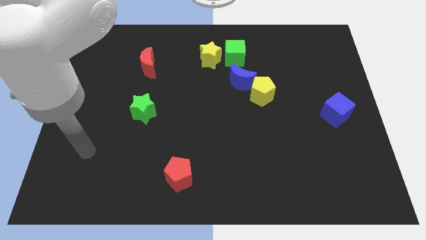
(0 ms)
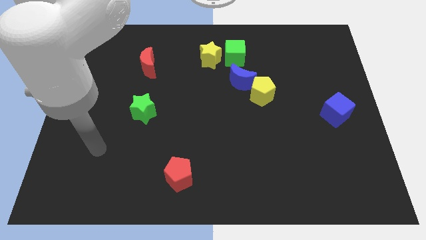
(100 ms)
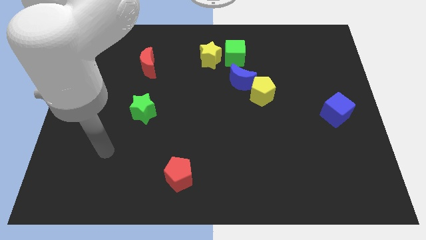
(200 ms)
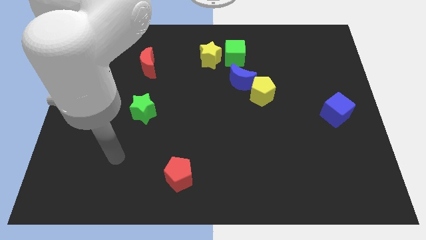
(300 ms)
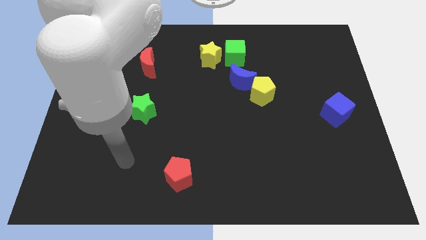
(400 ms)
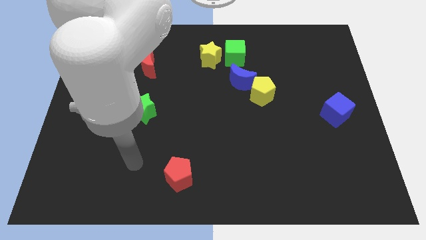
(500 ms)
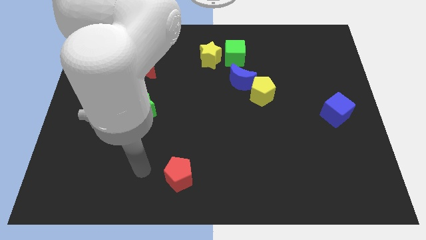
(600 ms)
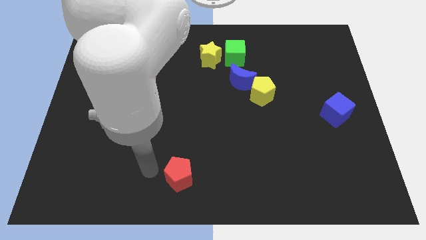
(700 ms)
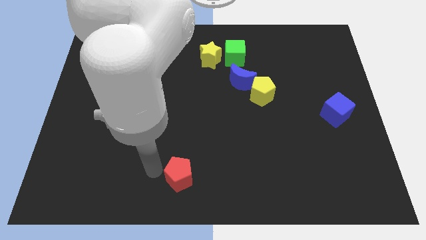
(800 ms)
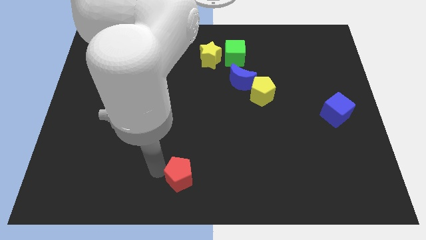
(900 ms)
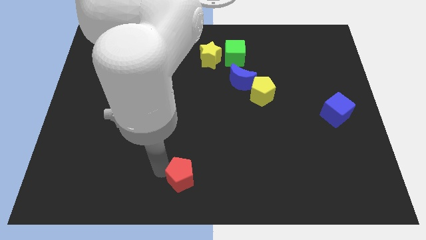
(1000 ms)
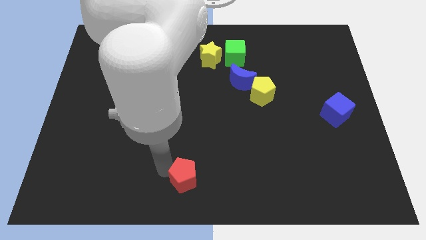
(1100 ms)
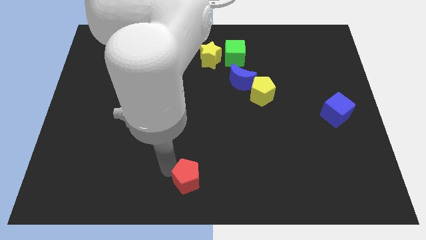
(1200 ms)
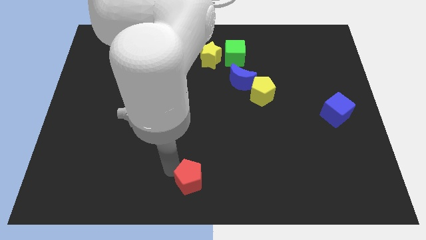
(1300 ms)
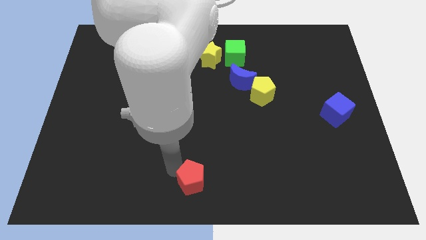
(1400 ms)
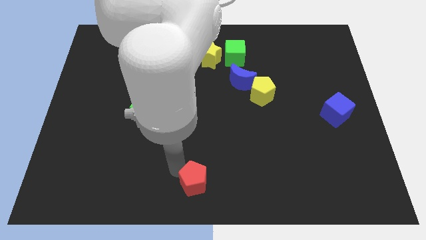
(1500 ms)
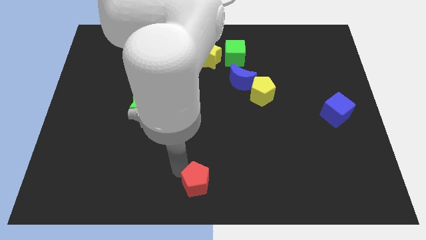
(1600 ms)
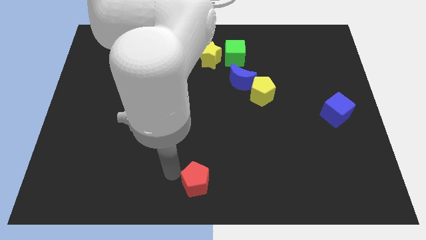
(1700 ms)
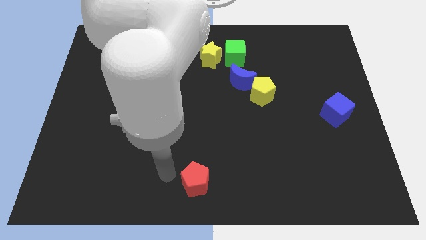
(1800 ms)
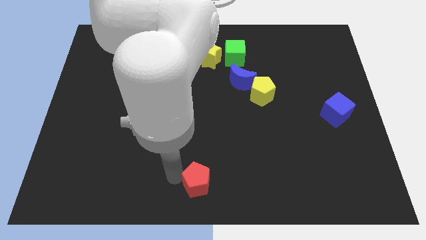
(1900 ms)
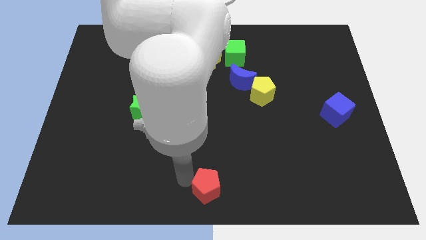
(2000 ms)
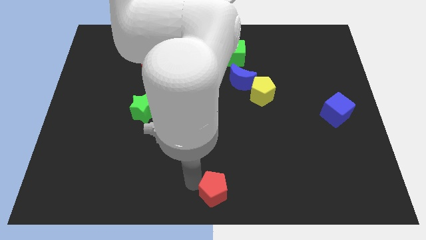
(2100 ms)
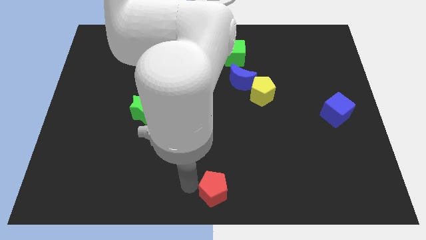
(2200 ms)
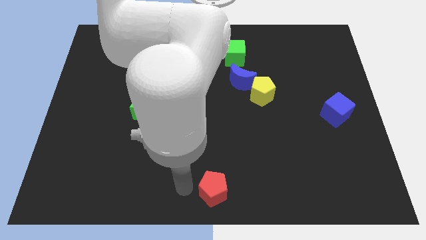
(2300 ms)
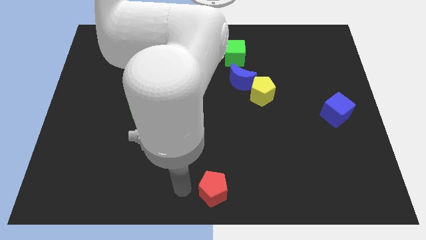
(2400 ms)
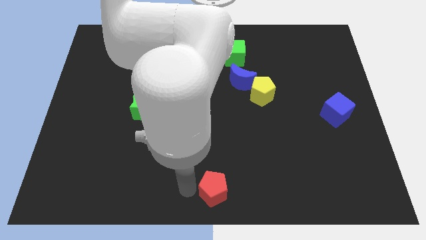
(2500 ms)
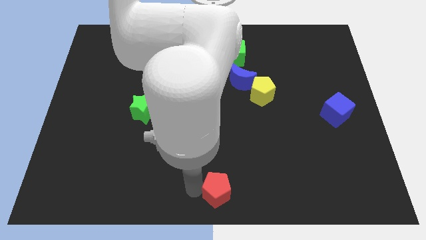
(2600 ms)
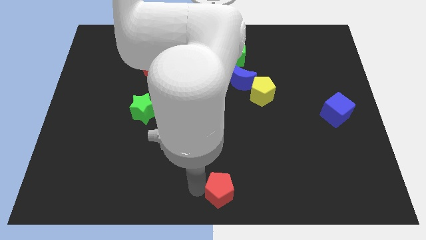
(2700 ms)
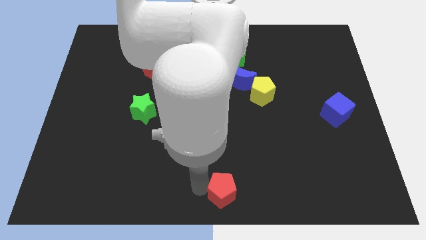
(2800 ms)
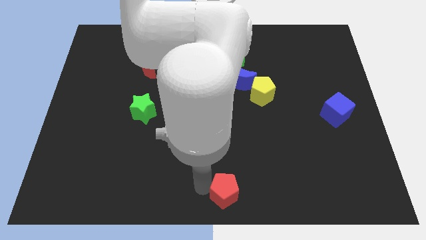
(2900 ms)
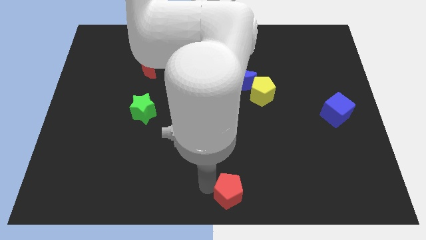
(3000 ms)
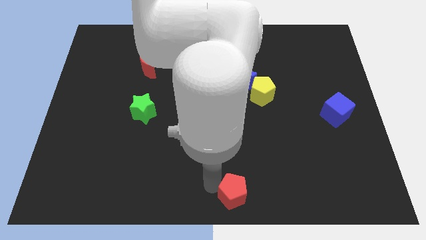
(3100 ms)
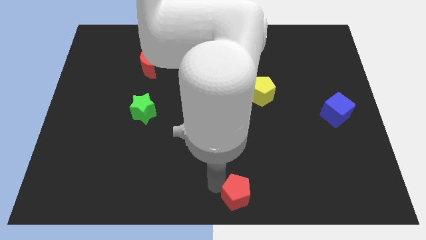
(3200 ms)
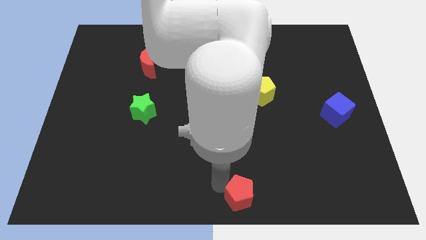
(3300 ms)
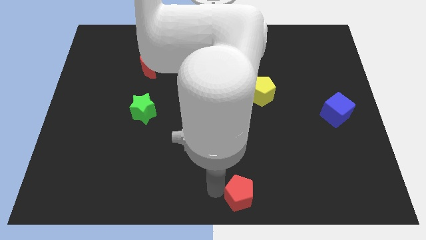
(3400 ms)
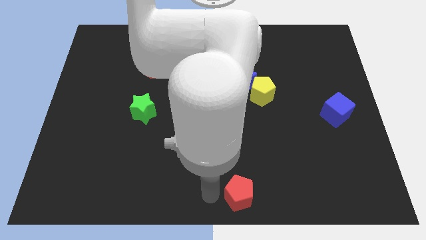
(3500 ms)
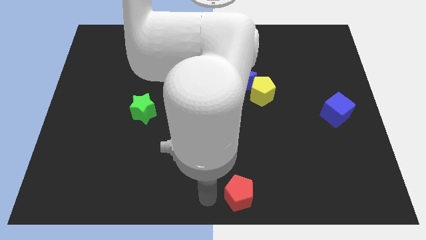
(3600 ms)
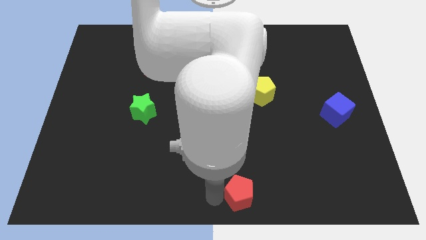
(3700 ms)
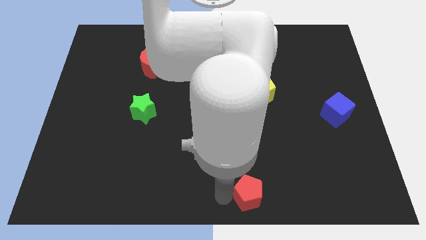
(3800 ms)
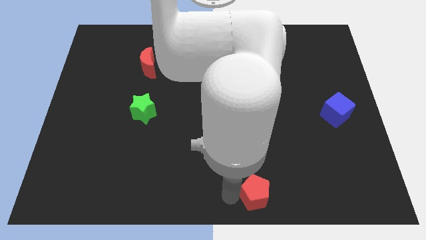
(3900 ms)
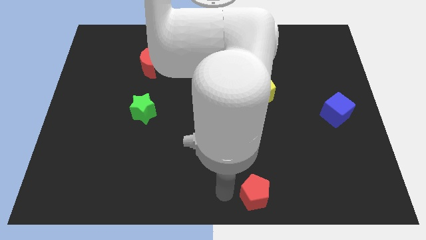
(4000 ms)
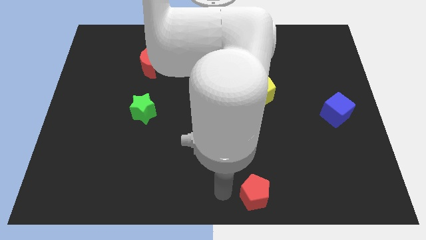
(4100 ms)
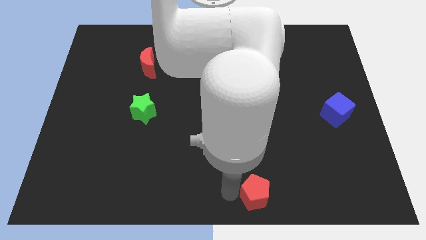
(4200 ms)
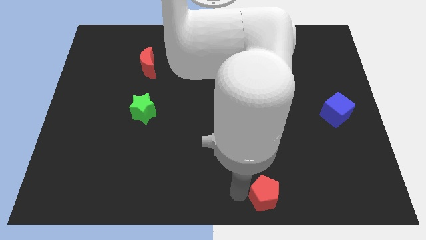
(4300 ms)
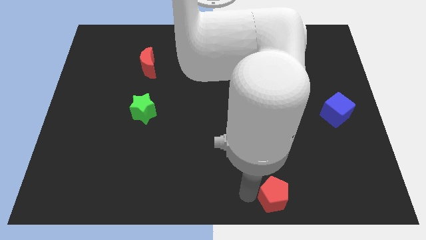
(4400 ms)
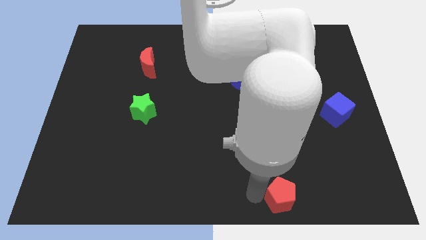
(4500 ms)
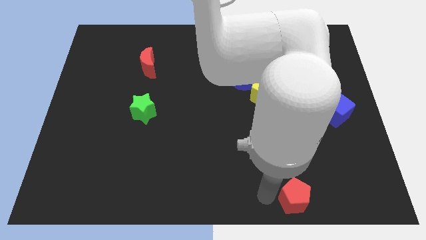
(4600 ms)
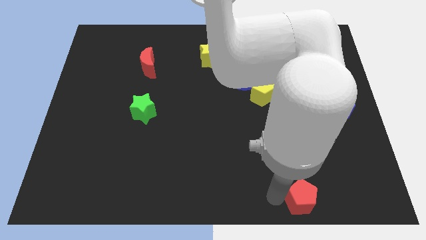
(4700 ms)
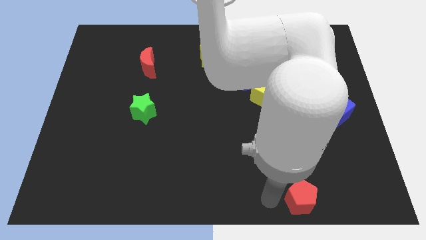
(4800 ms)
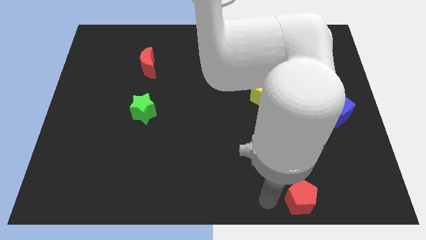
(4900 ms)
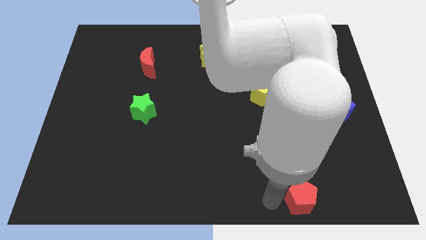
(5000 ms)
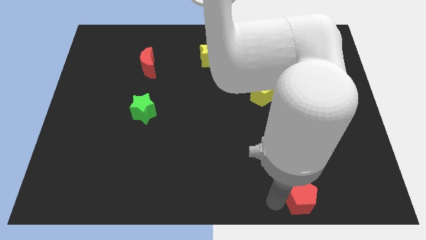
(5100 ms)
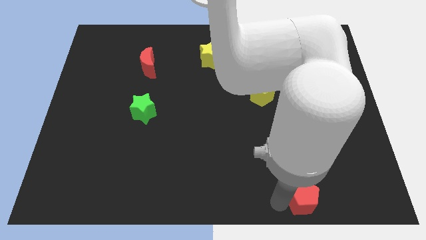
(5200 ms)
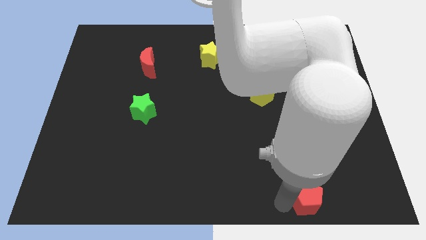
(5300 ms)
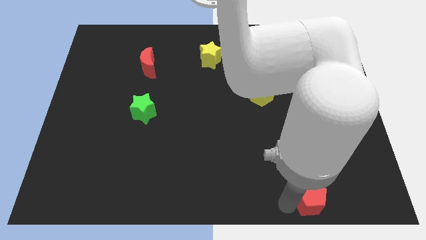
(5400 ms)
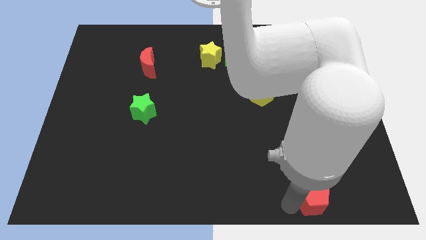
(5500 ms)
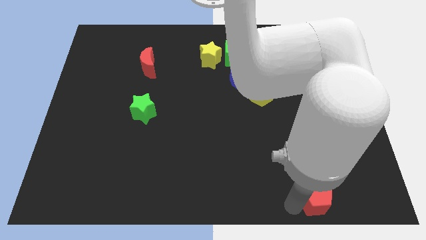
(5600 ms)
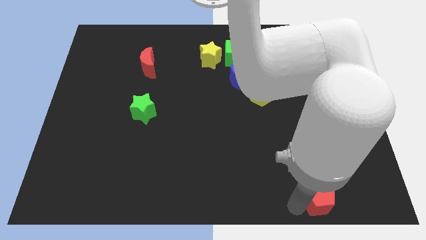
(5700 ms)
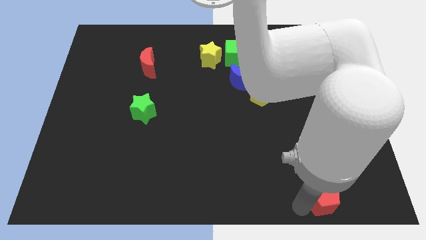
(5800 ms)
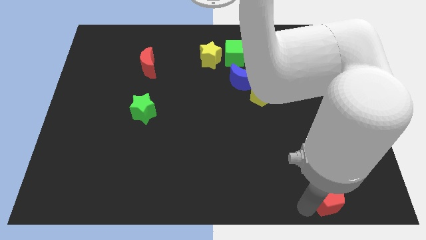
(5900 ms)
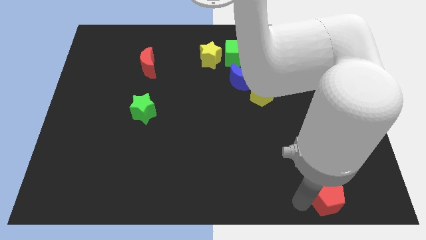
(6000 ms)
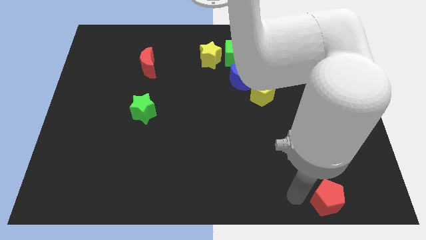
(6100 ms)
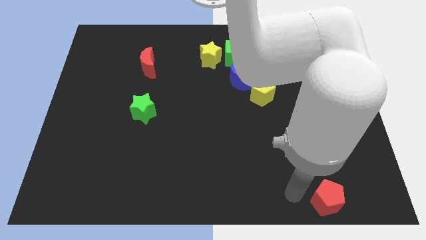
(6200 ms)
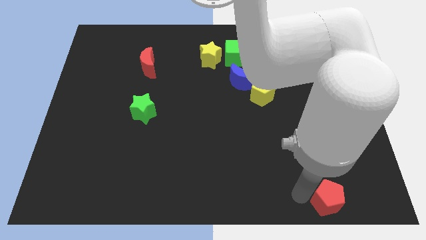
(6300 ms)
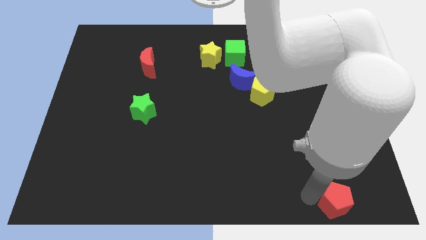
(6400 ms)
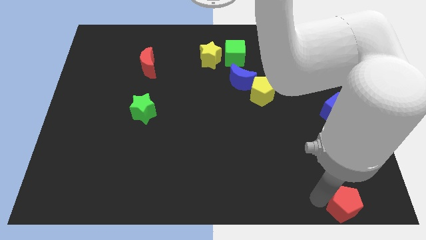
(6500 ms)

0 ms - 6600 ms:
put the red pentagon to the bottom right of the board

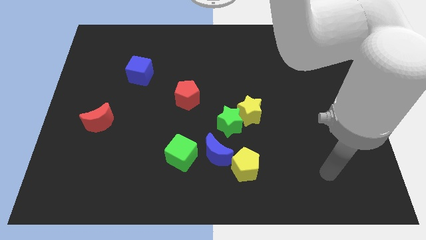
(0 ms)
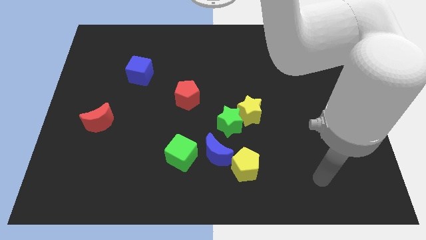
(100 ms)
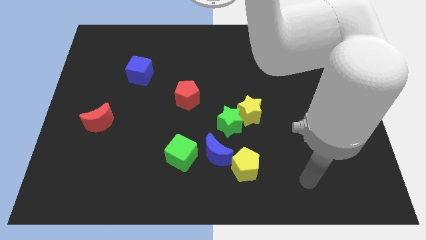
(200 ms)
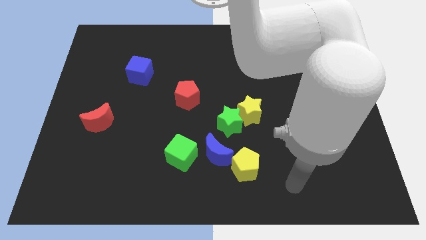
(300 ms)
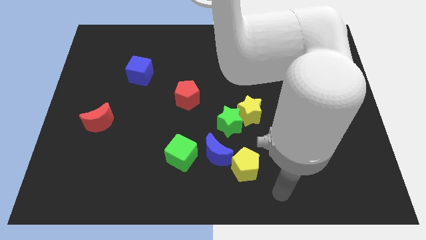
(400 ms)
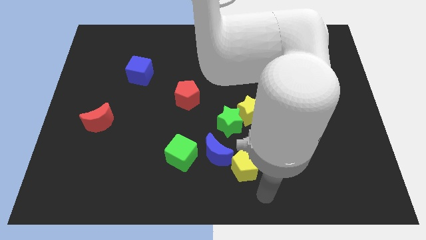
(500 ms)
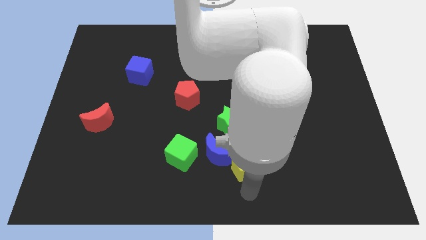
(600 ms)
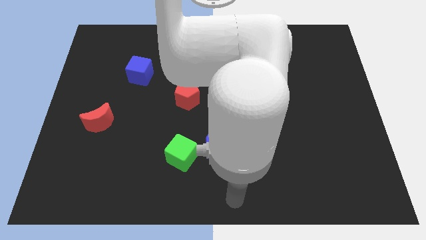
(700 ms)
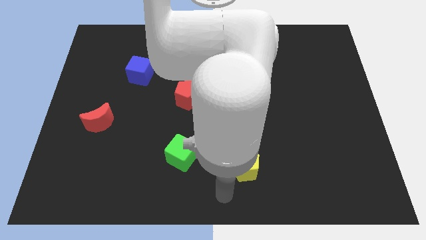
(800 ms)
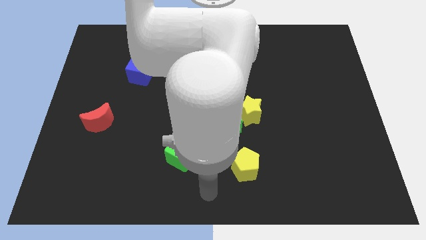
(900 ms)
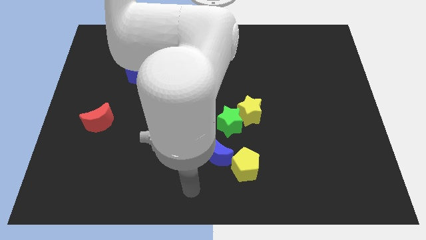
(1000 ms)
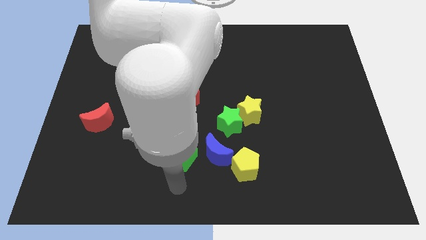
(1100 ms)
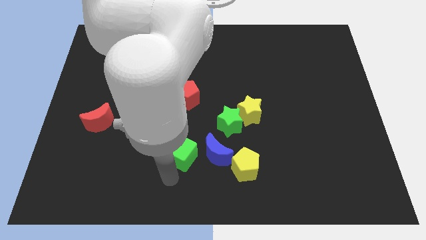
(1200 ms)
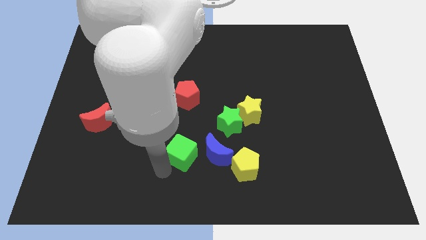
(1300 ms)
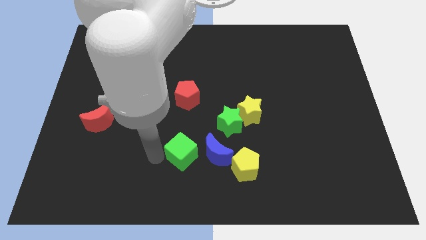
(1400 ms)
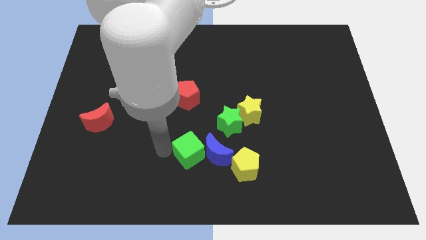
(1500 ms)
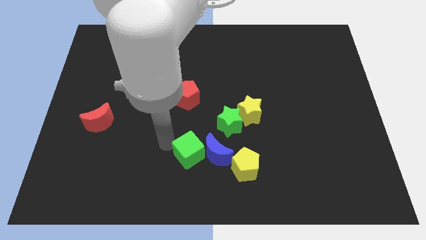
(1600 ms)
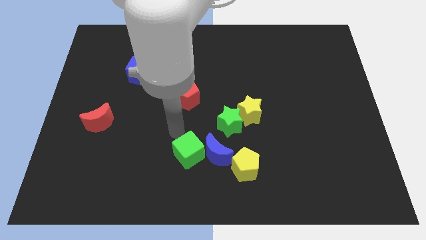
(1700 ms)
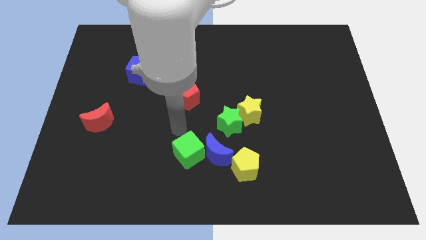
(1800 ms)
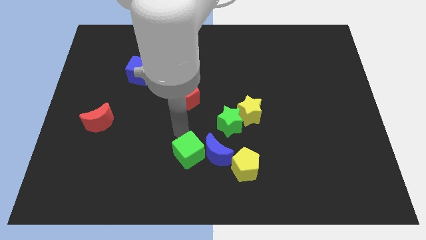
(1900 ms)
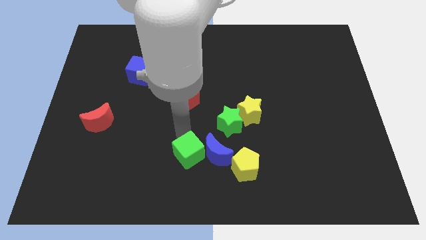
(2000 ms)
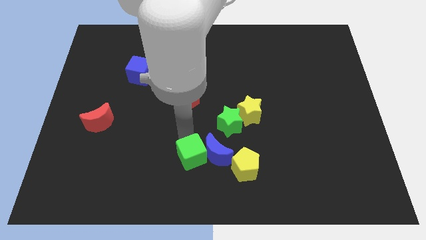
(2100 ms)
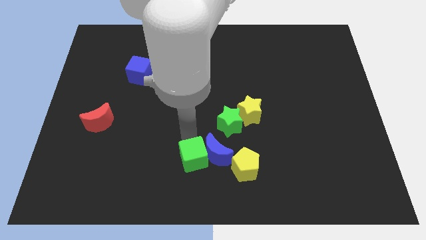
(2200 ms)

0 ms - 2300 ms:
push the green cube to the bottom side
